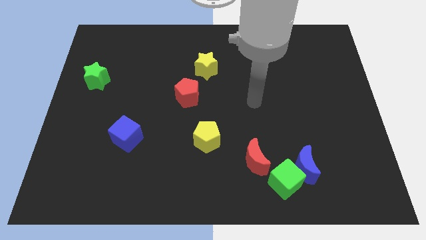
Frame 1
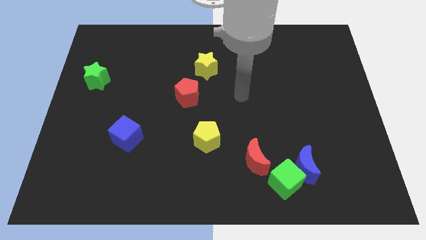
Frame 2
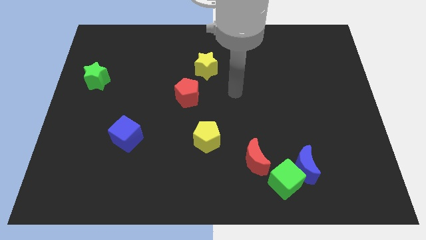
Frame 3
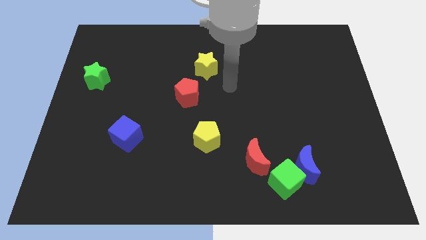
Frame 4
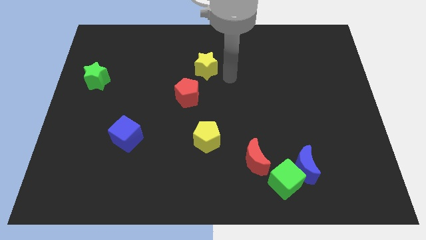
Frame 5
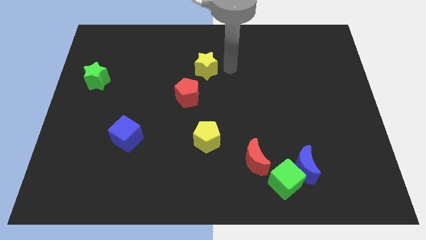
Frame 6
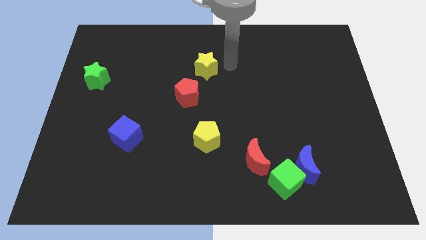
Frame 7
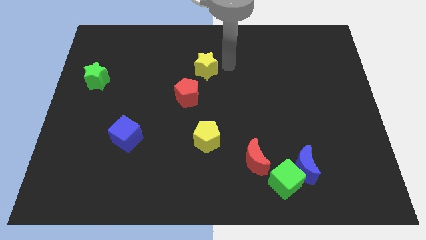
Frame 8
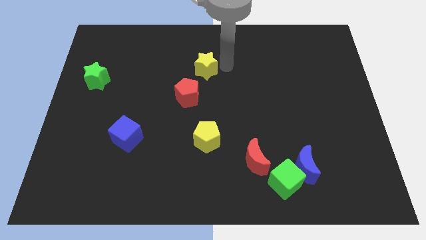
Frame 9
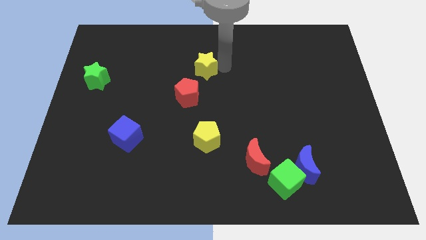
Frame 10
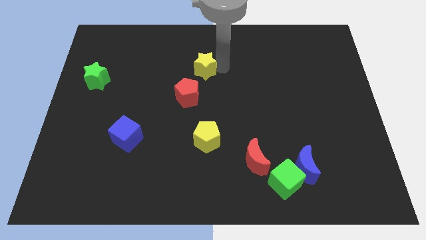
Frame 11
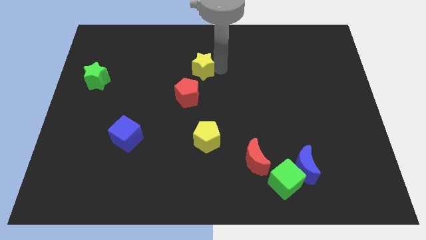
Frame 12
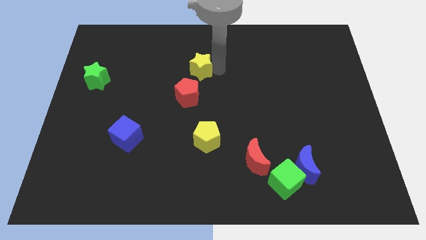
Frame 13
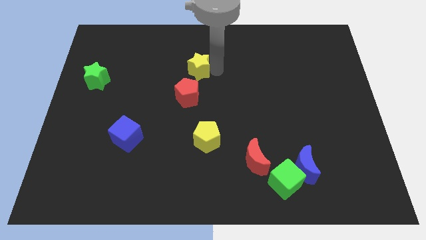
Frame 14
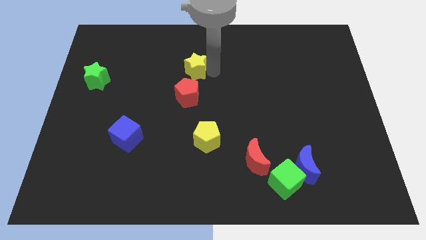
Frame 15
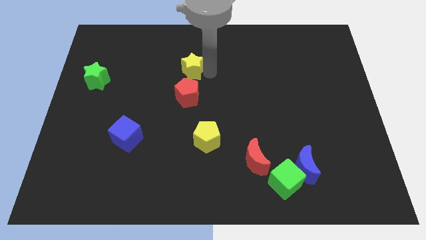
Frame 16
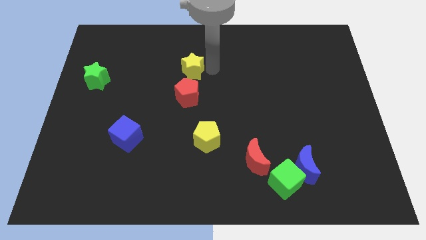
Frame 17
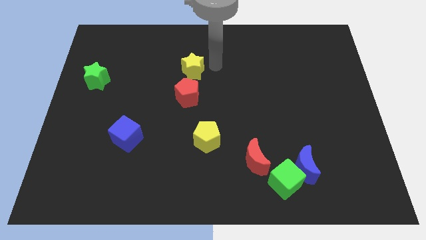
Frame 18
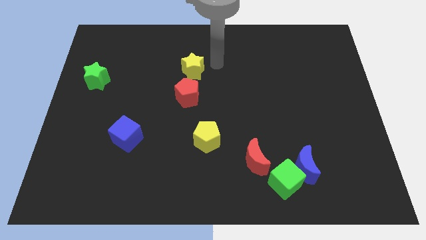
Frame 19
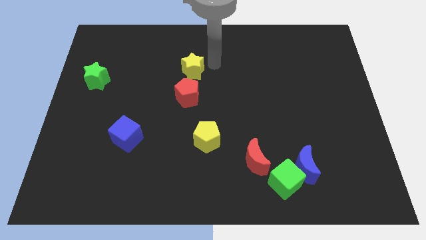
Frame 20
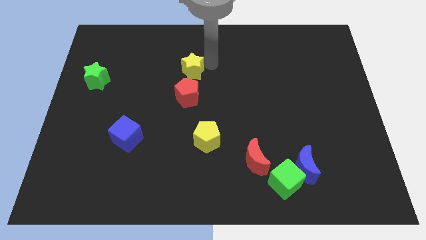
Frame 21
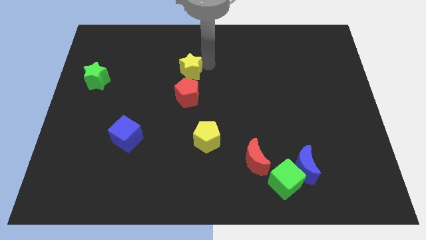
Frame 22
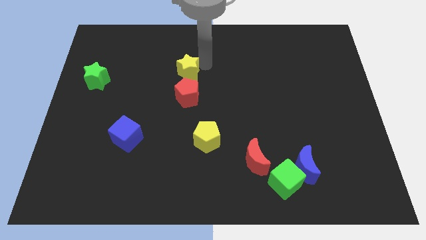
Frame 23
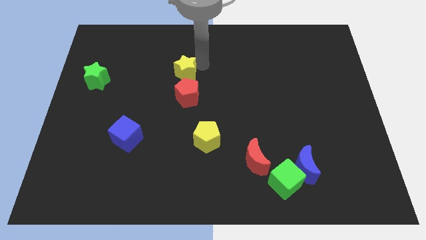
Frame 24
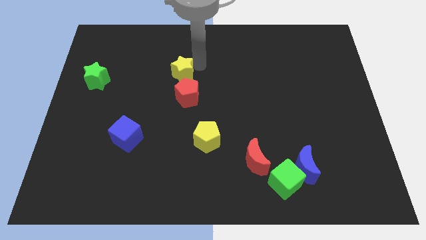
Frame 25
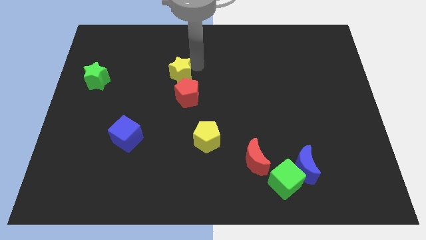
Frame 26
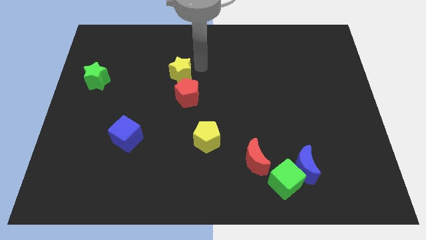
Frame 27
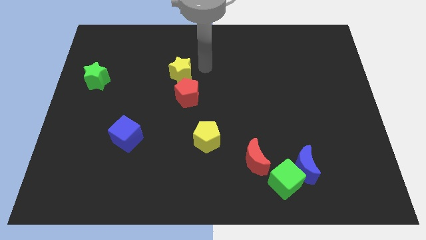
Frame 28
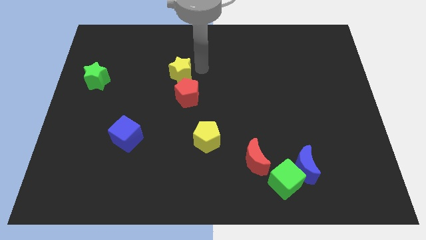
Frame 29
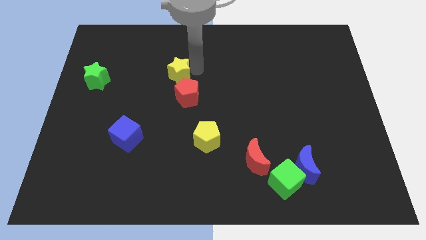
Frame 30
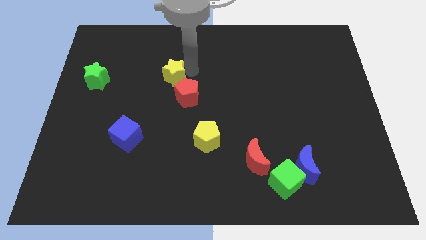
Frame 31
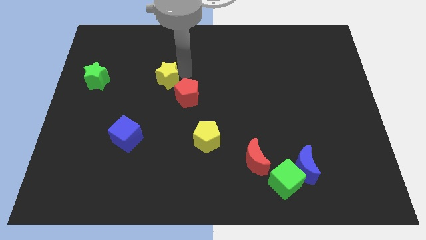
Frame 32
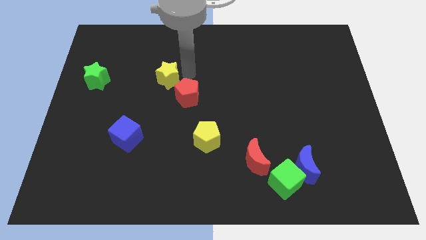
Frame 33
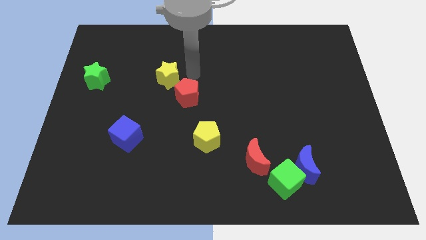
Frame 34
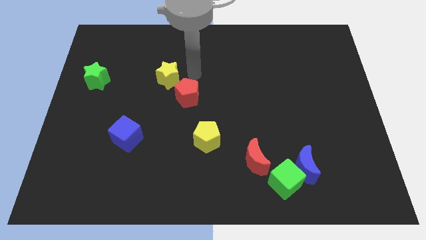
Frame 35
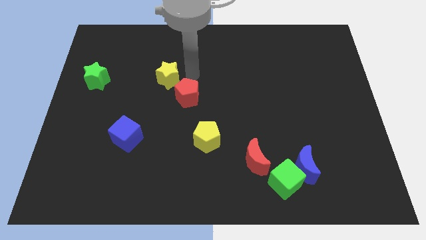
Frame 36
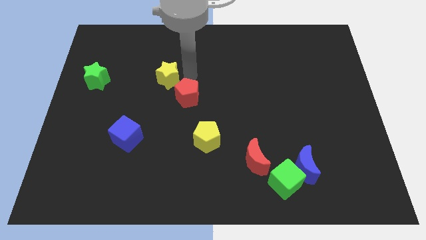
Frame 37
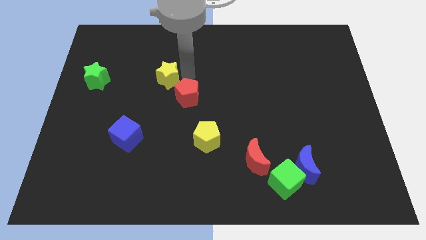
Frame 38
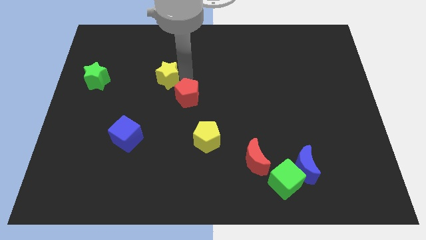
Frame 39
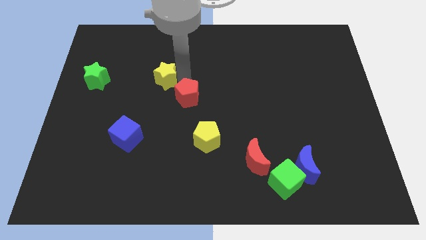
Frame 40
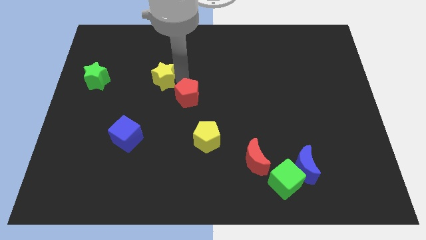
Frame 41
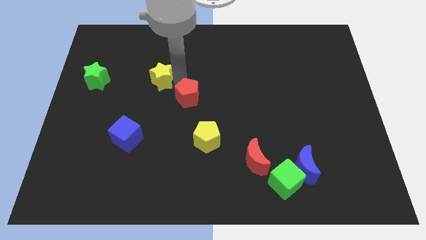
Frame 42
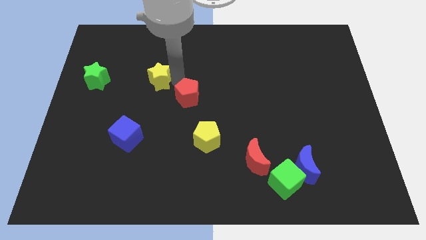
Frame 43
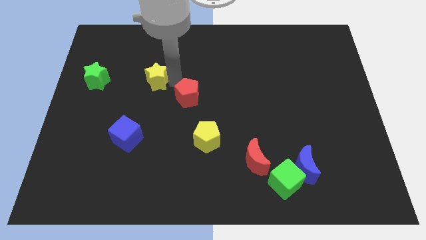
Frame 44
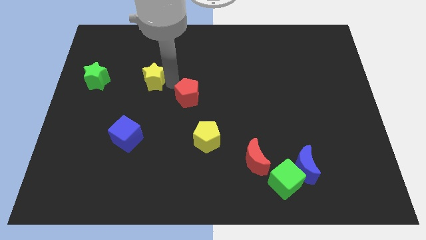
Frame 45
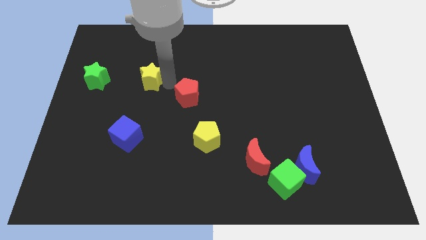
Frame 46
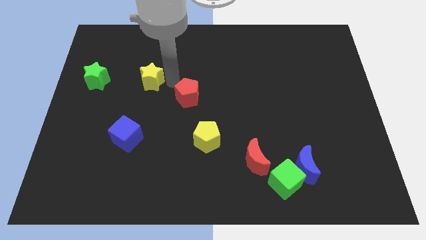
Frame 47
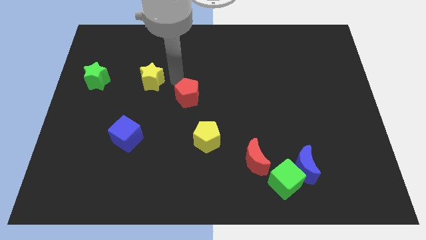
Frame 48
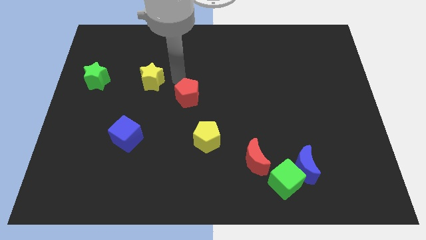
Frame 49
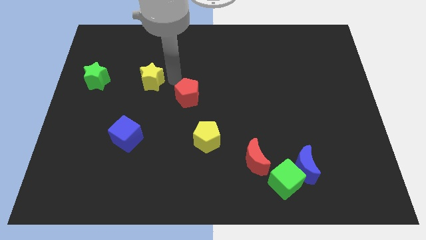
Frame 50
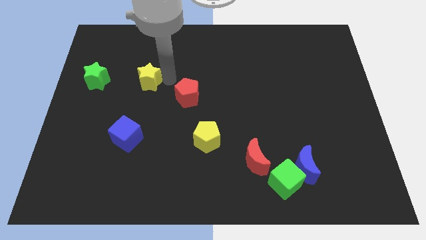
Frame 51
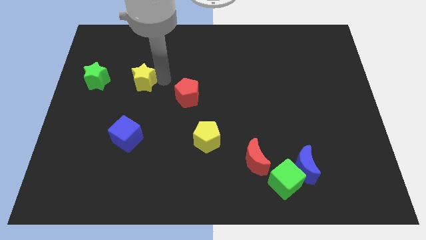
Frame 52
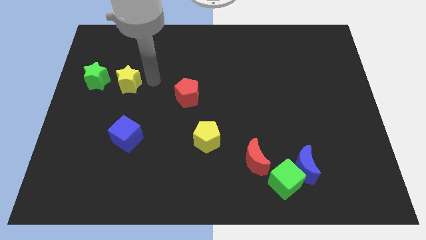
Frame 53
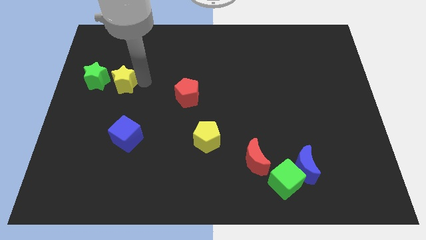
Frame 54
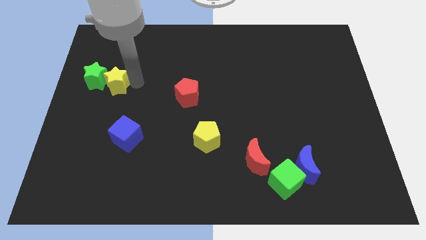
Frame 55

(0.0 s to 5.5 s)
slide the yellow star towards the green star

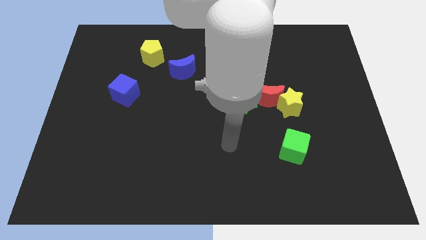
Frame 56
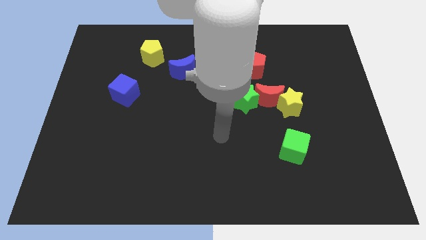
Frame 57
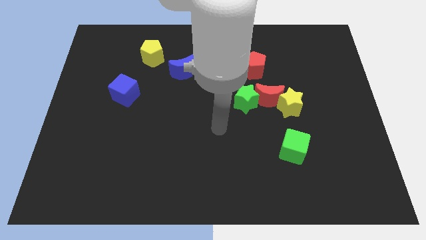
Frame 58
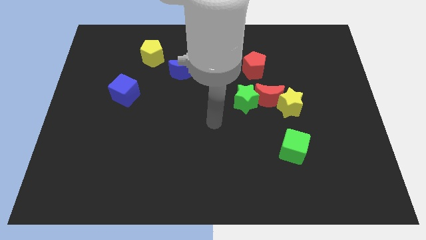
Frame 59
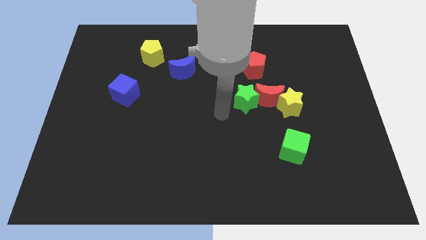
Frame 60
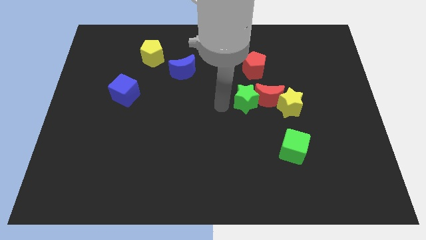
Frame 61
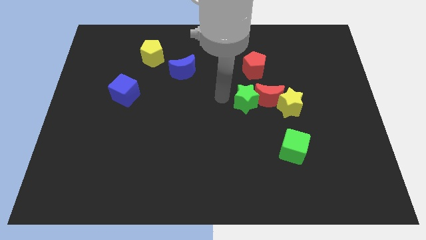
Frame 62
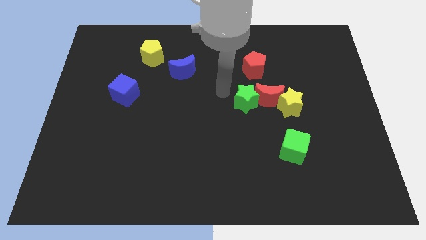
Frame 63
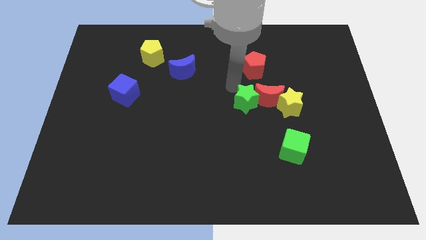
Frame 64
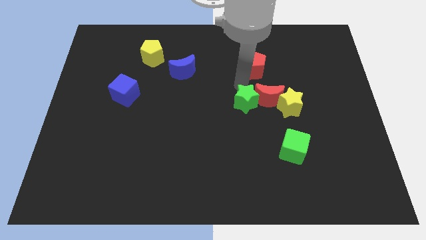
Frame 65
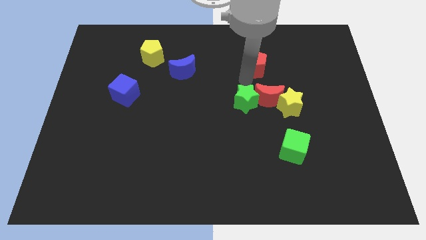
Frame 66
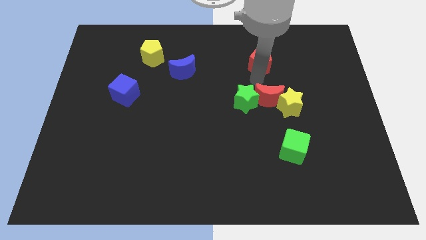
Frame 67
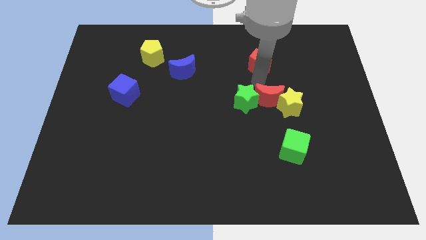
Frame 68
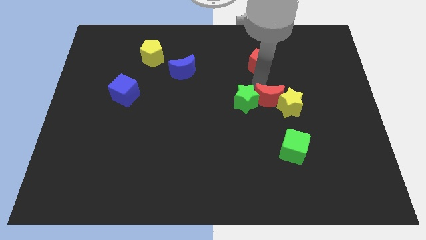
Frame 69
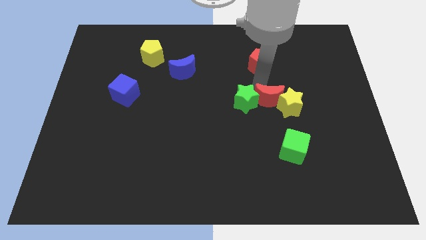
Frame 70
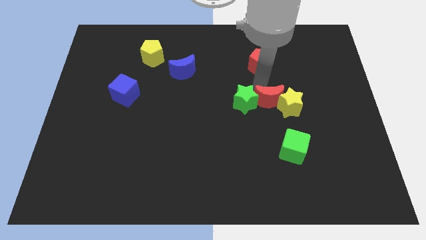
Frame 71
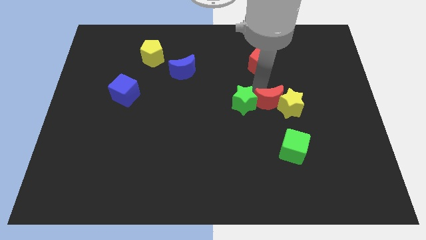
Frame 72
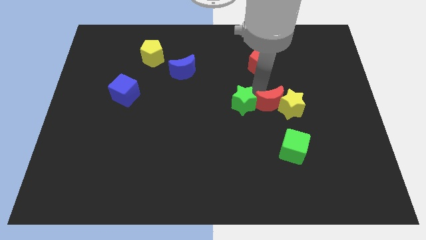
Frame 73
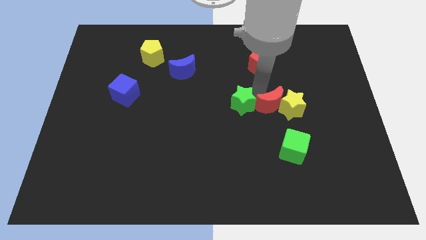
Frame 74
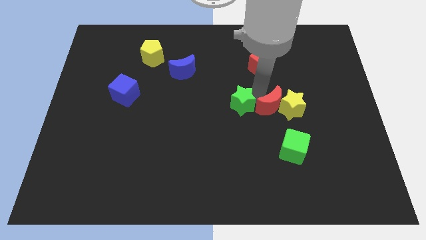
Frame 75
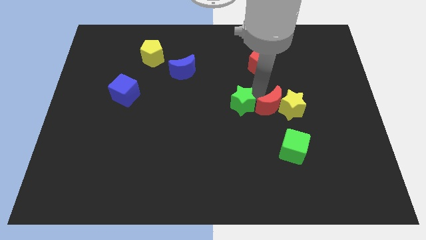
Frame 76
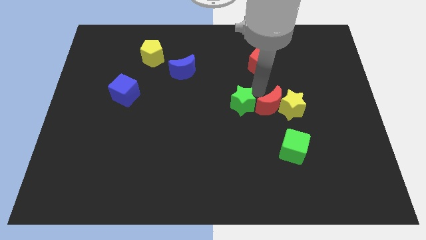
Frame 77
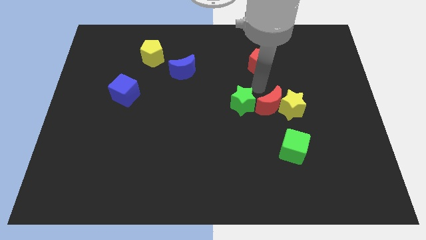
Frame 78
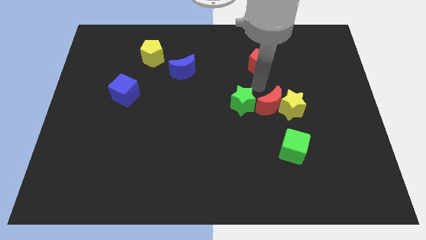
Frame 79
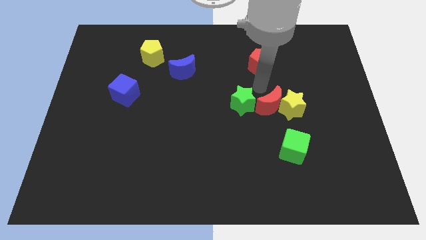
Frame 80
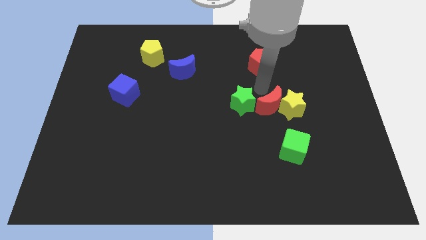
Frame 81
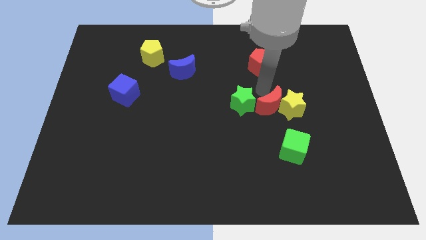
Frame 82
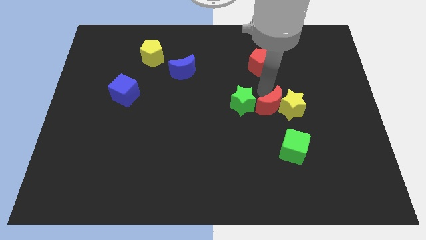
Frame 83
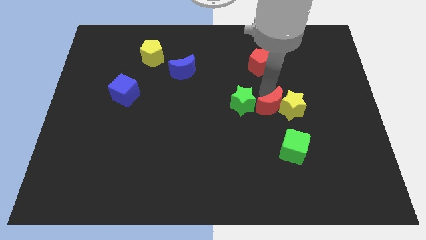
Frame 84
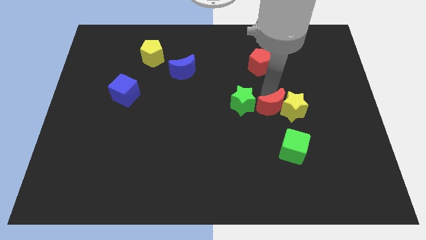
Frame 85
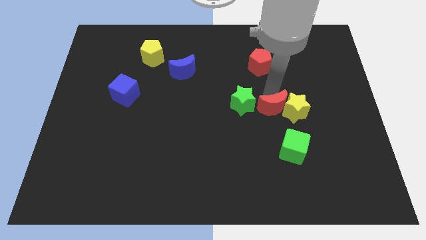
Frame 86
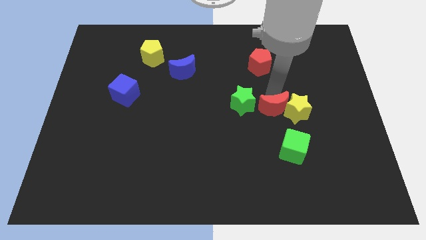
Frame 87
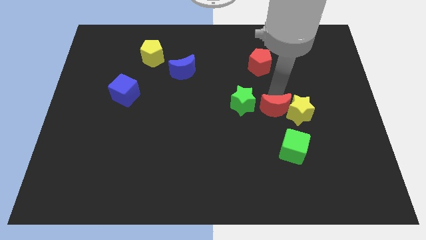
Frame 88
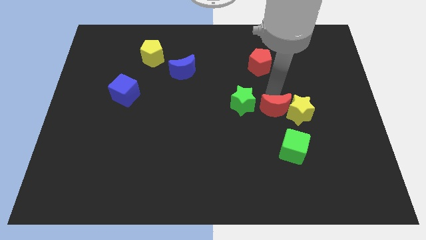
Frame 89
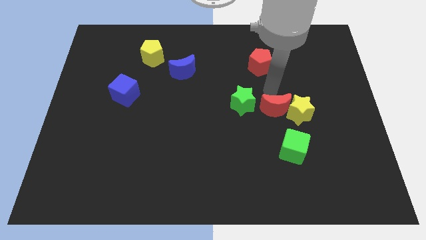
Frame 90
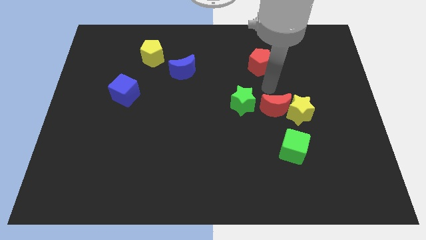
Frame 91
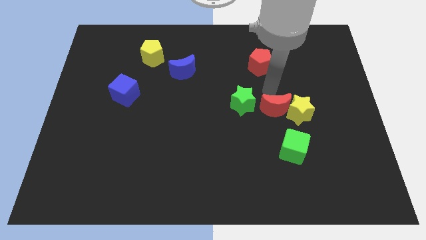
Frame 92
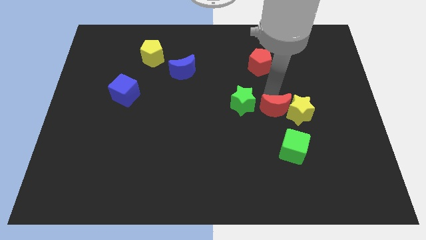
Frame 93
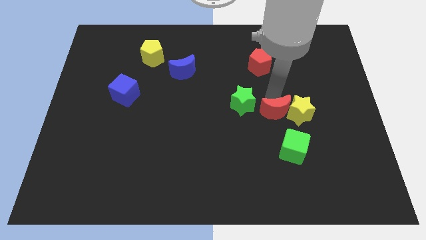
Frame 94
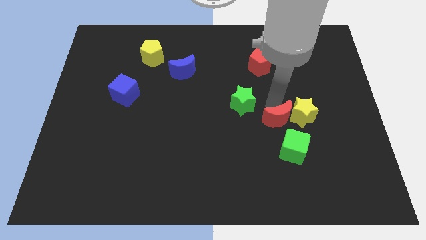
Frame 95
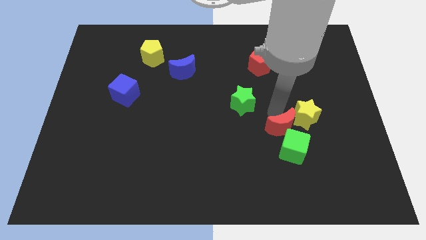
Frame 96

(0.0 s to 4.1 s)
push the red moon next to the green cube
